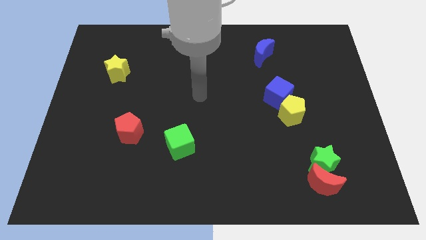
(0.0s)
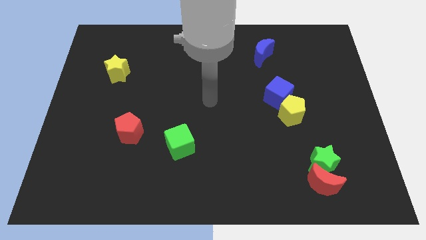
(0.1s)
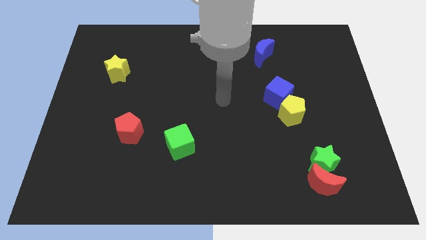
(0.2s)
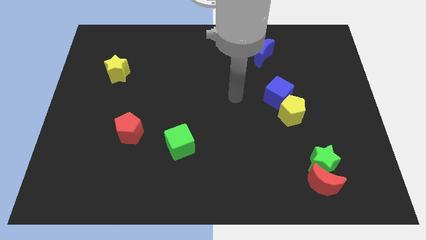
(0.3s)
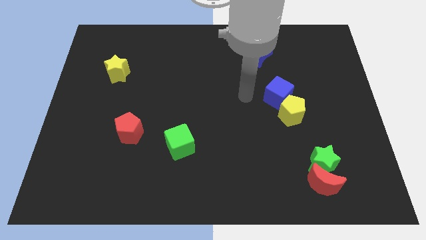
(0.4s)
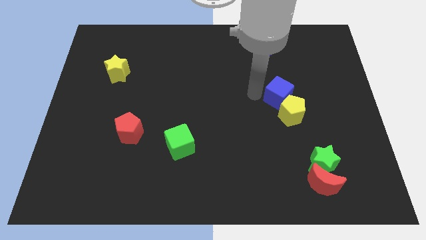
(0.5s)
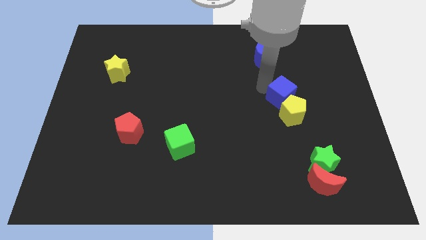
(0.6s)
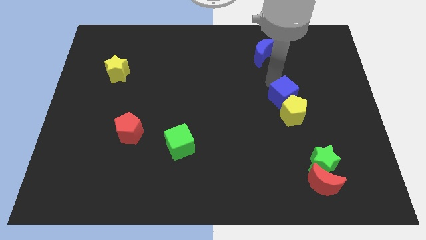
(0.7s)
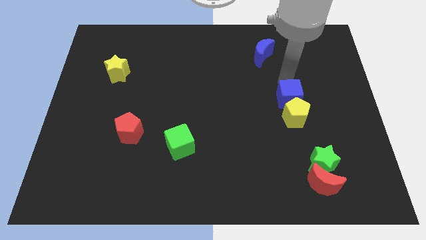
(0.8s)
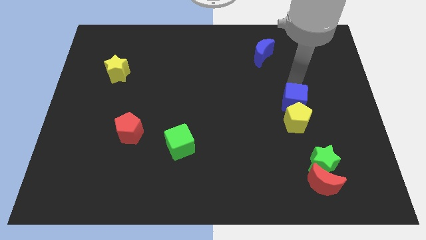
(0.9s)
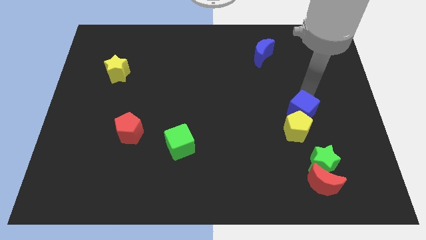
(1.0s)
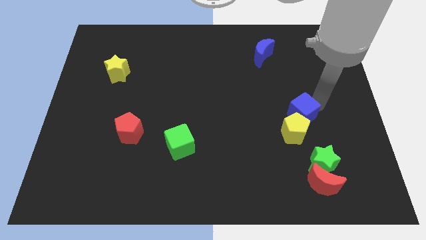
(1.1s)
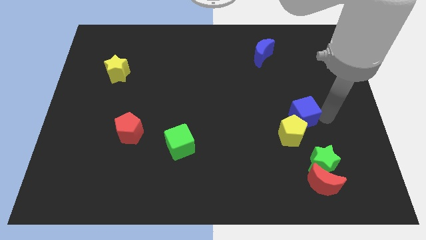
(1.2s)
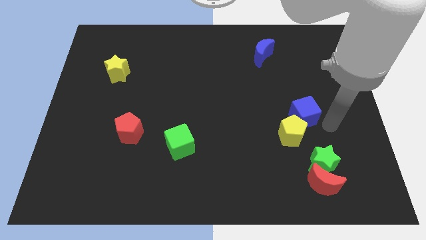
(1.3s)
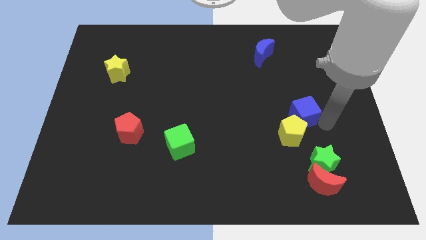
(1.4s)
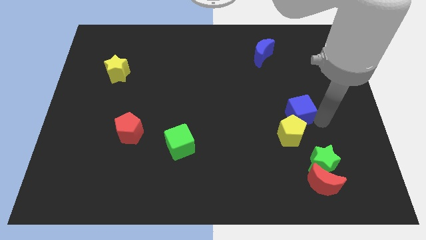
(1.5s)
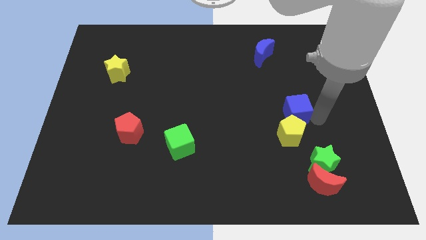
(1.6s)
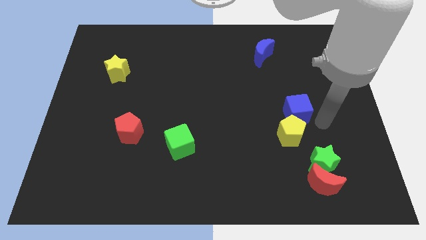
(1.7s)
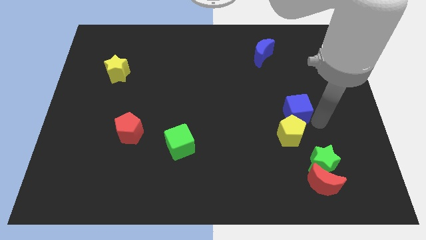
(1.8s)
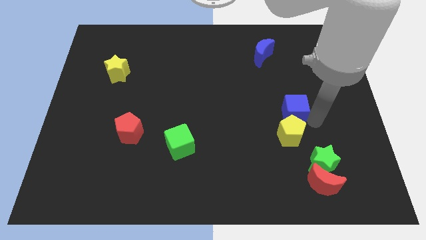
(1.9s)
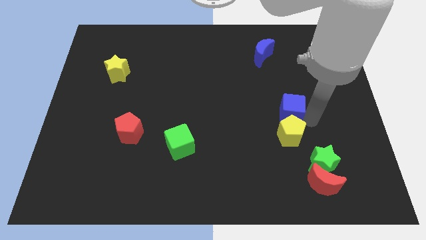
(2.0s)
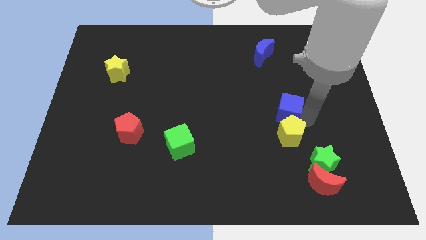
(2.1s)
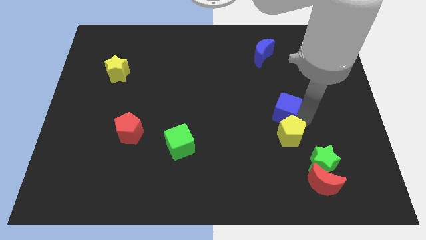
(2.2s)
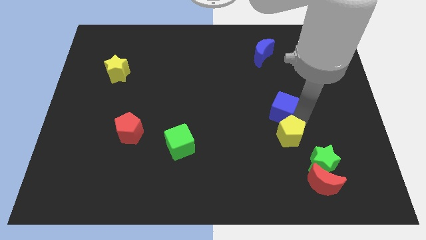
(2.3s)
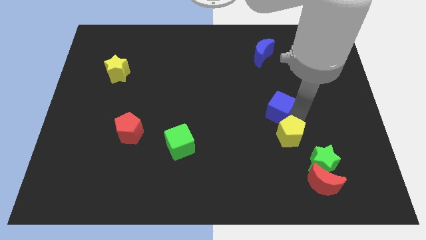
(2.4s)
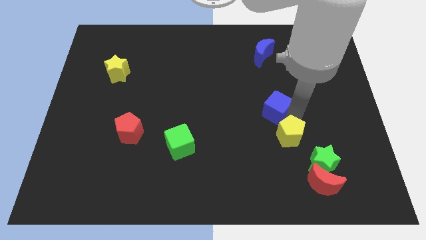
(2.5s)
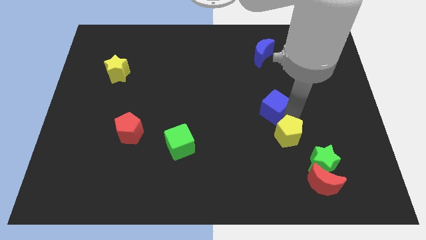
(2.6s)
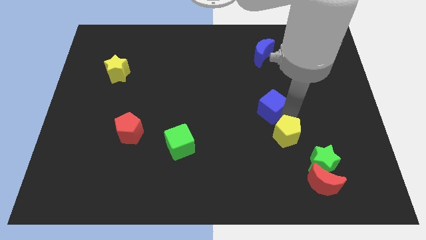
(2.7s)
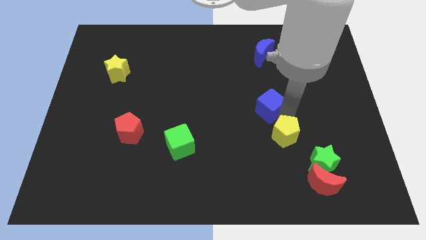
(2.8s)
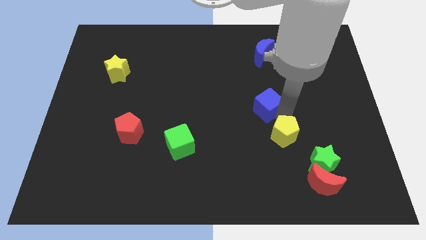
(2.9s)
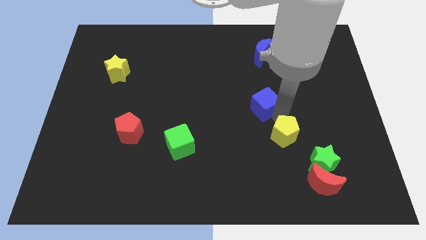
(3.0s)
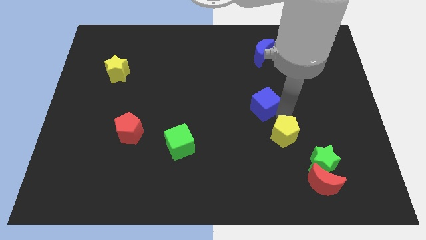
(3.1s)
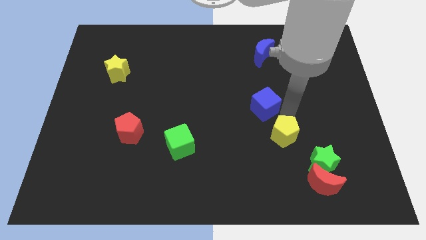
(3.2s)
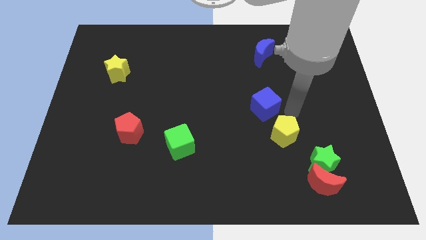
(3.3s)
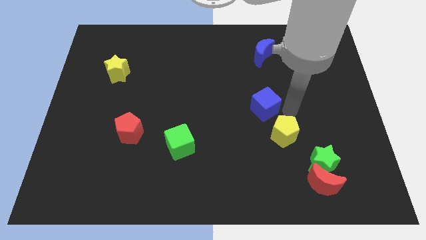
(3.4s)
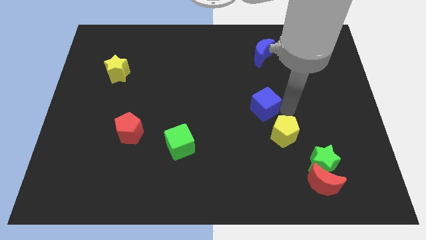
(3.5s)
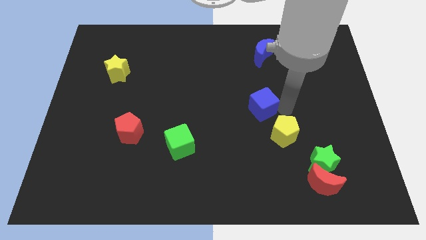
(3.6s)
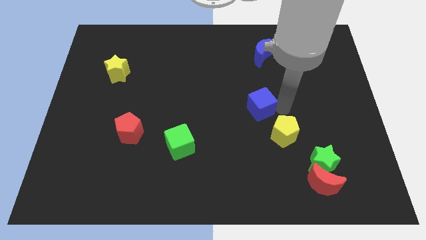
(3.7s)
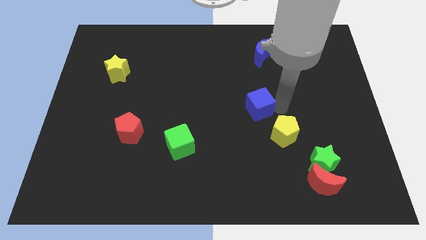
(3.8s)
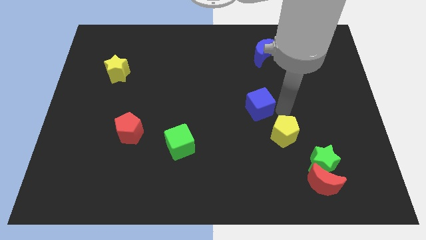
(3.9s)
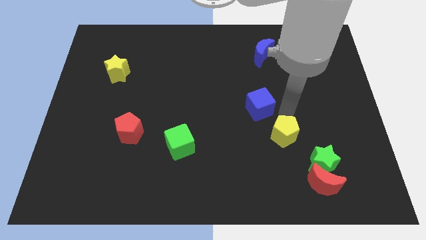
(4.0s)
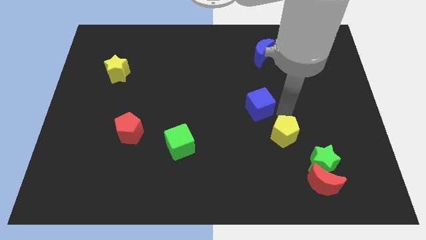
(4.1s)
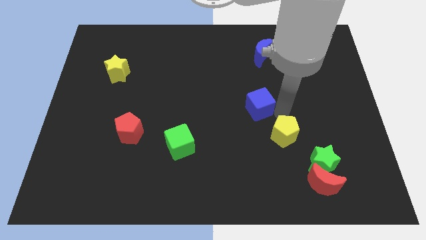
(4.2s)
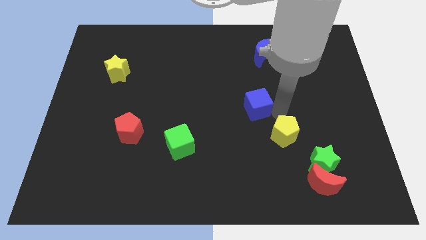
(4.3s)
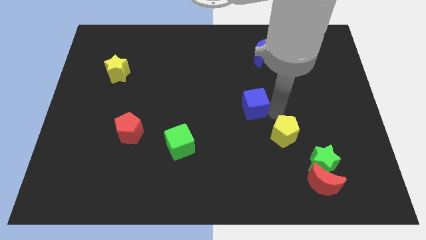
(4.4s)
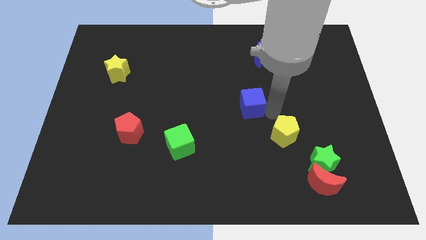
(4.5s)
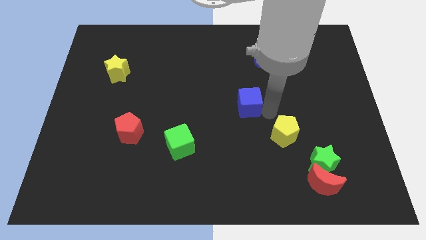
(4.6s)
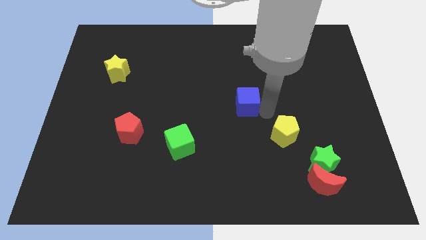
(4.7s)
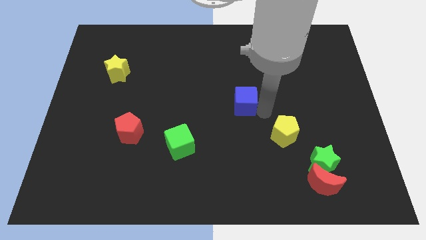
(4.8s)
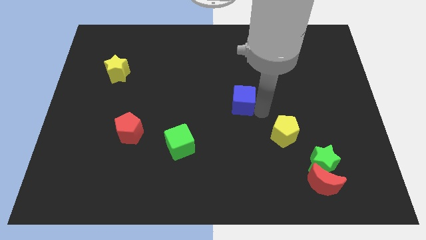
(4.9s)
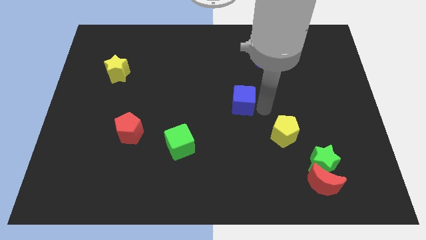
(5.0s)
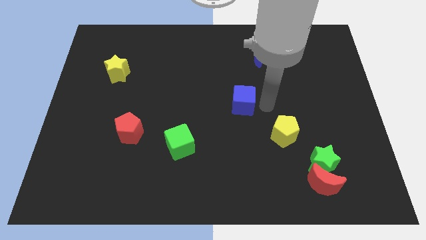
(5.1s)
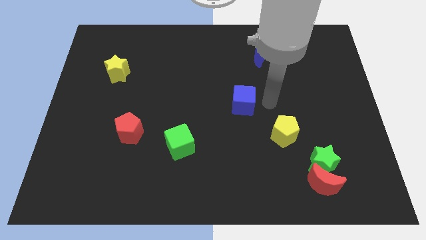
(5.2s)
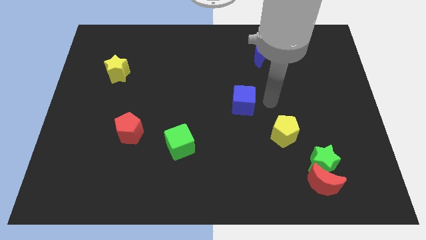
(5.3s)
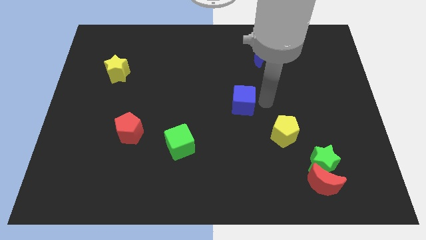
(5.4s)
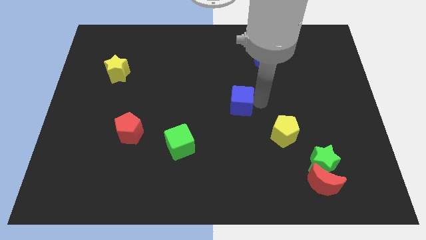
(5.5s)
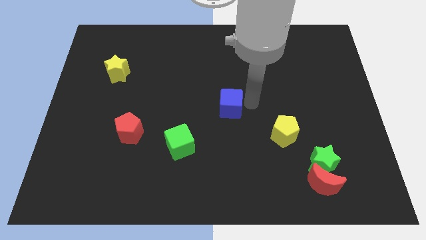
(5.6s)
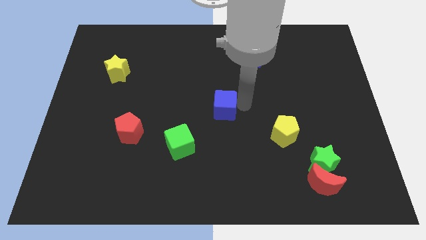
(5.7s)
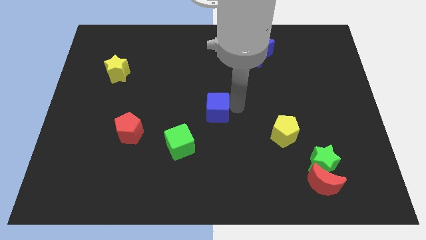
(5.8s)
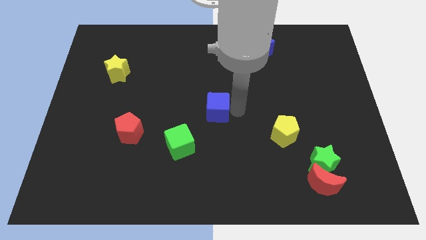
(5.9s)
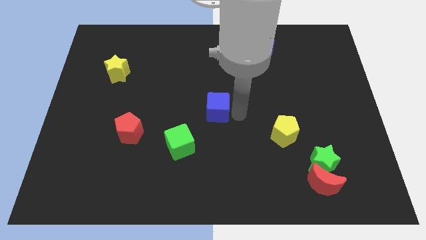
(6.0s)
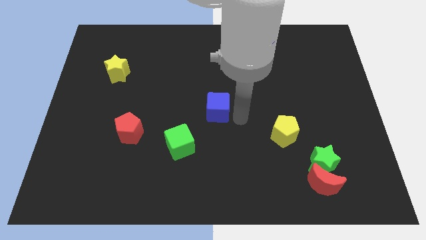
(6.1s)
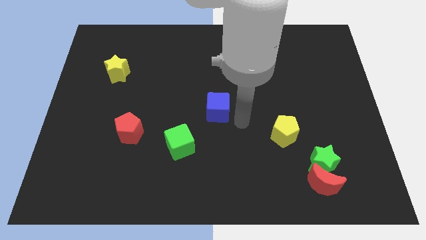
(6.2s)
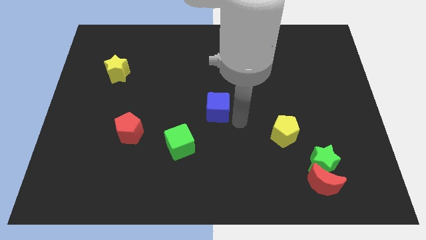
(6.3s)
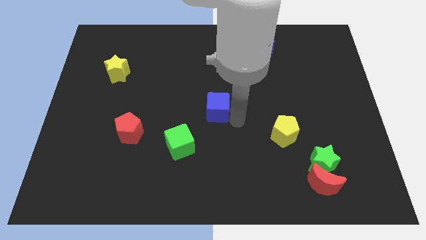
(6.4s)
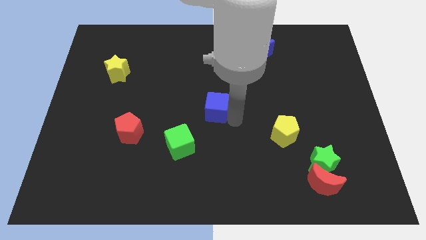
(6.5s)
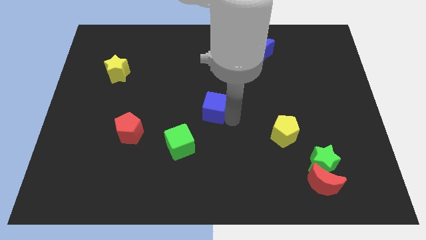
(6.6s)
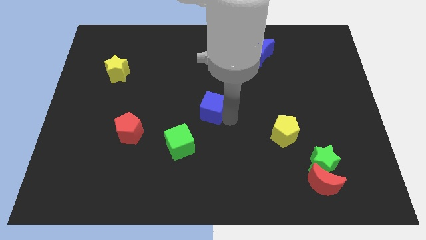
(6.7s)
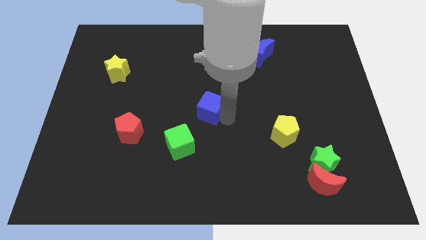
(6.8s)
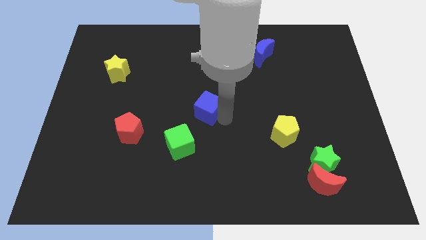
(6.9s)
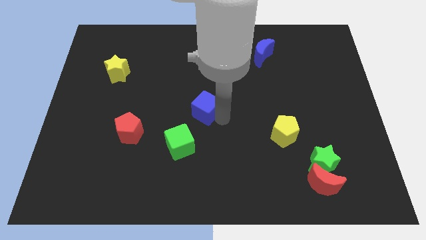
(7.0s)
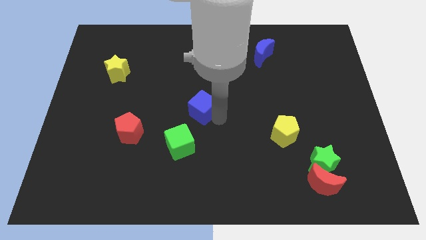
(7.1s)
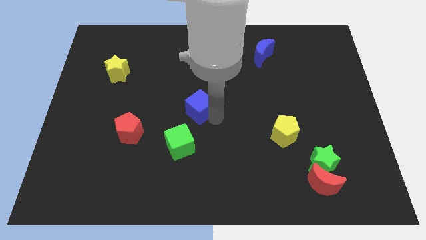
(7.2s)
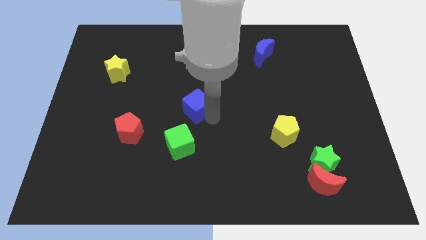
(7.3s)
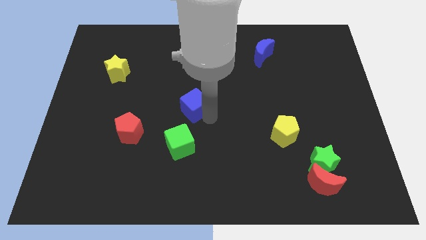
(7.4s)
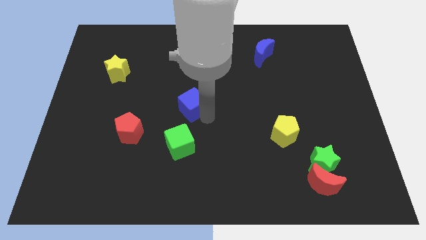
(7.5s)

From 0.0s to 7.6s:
push the blue cube left

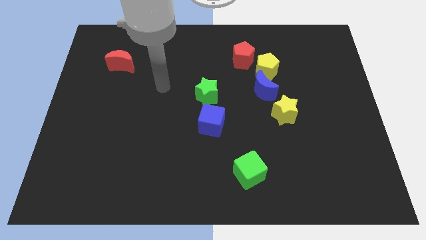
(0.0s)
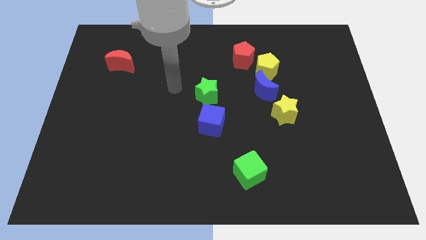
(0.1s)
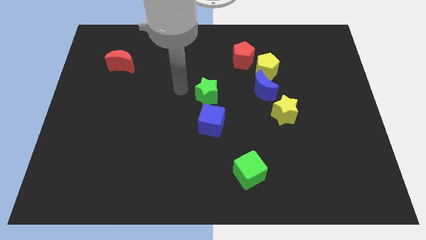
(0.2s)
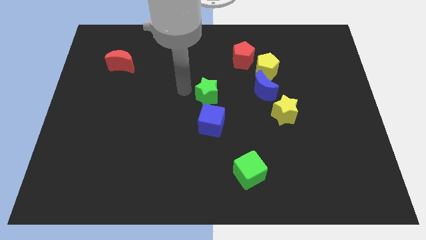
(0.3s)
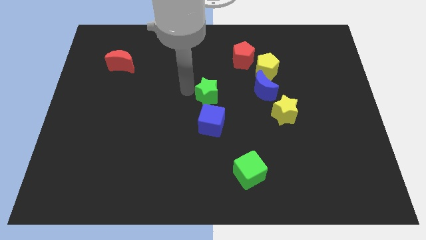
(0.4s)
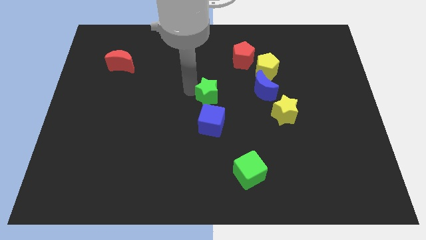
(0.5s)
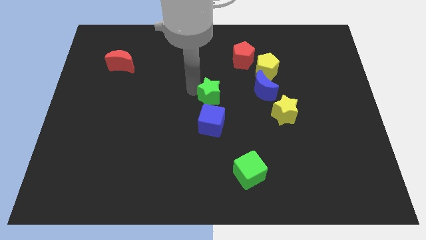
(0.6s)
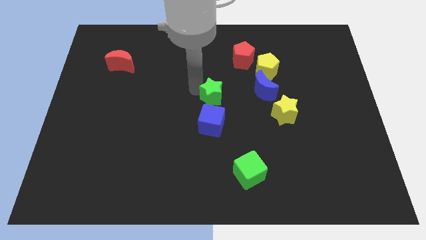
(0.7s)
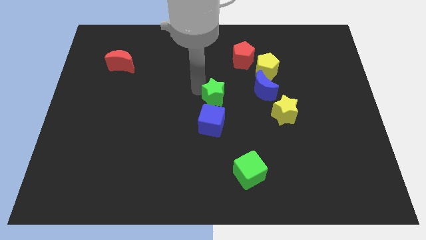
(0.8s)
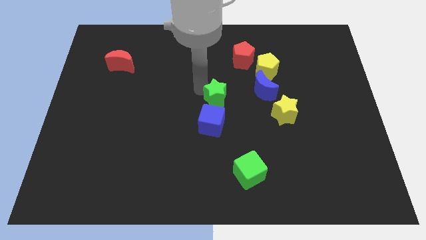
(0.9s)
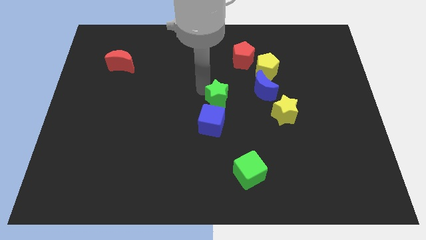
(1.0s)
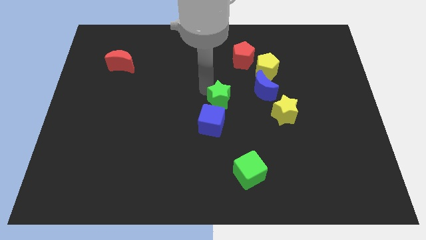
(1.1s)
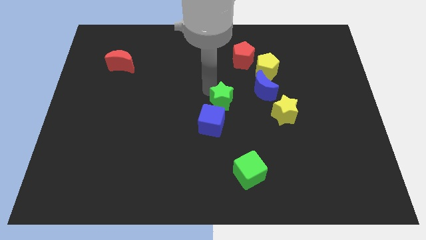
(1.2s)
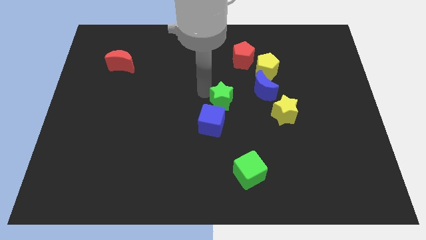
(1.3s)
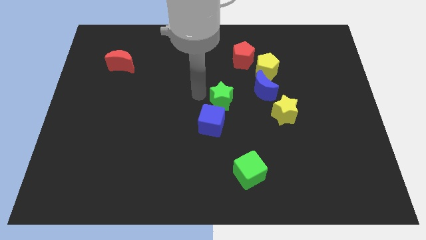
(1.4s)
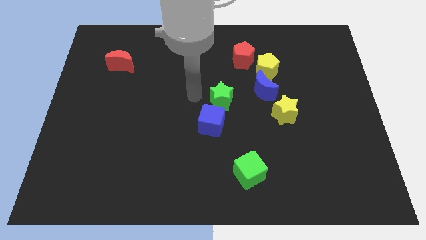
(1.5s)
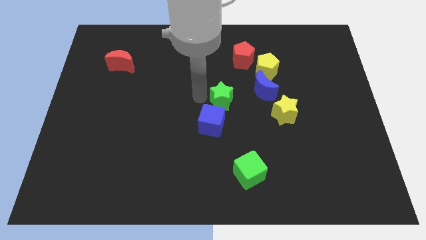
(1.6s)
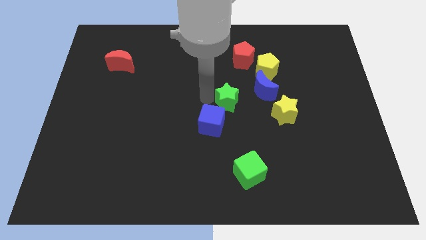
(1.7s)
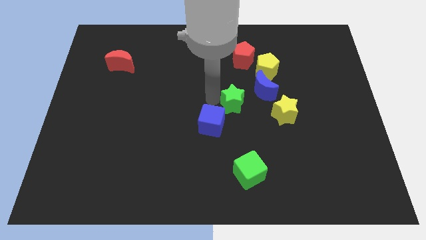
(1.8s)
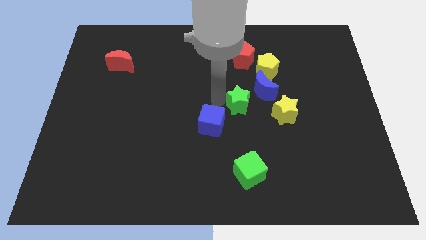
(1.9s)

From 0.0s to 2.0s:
push the green star a little right
